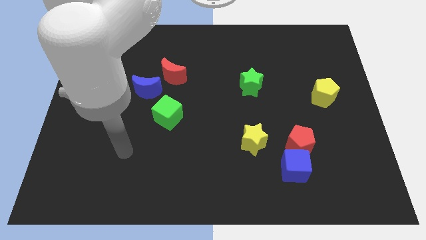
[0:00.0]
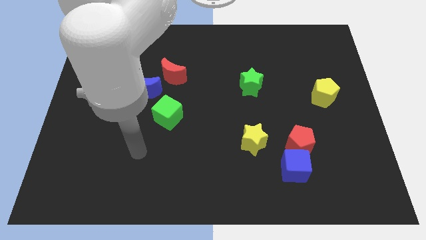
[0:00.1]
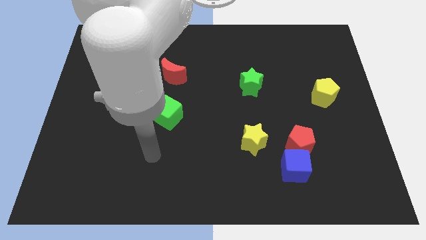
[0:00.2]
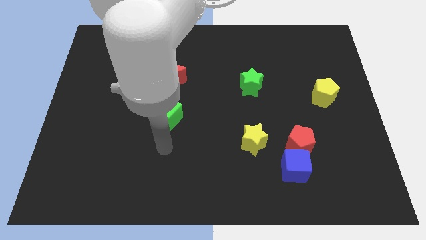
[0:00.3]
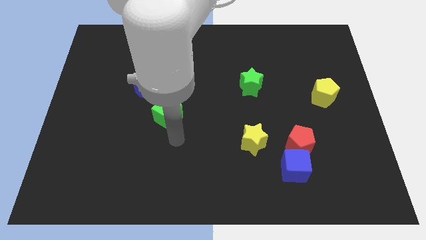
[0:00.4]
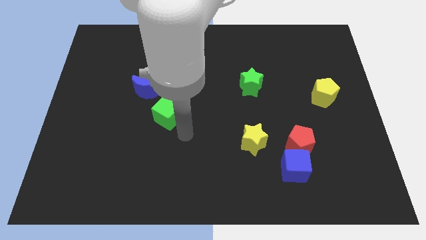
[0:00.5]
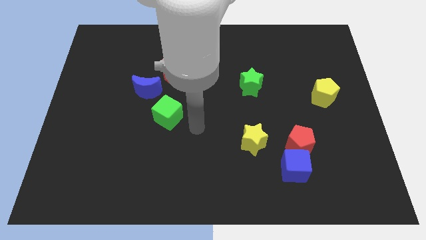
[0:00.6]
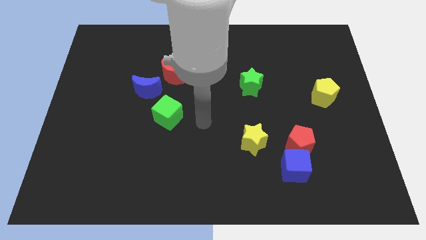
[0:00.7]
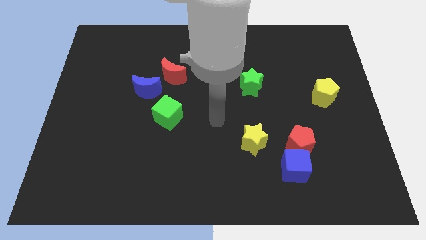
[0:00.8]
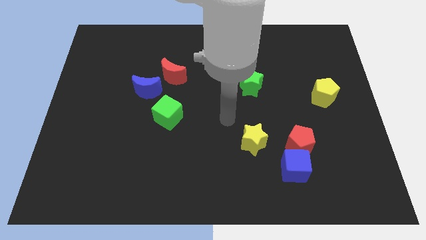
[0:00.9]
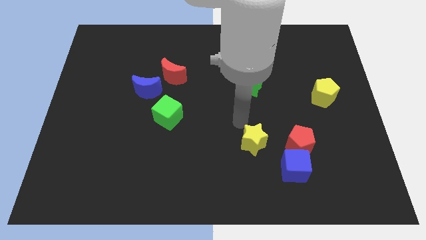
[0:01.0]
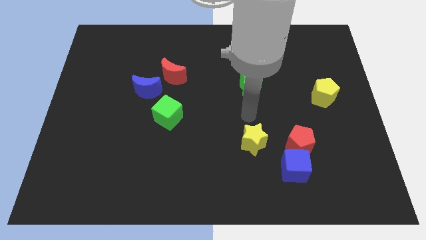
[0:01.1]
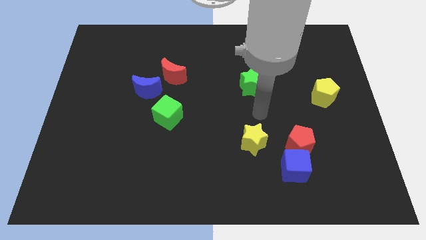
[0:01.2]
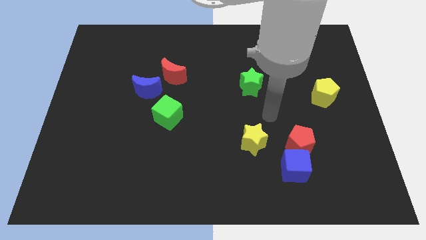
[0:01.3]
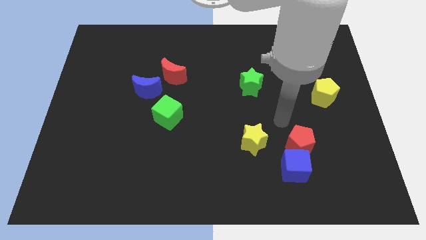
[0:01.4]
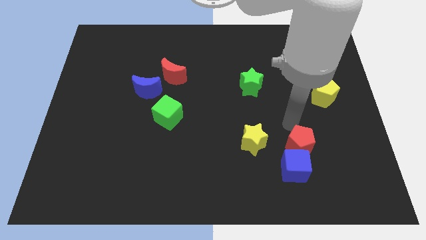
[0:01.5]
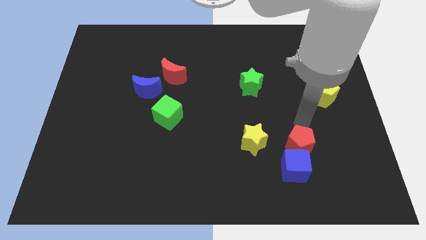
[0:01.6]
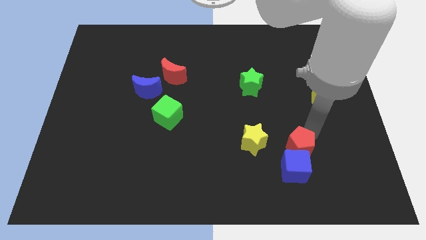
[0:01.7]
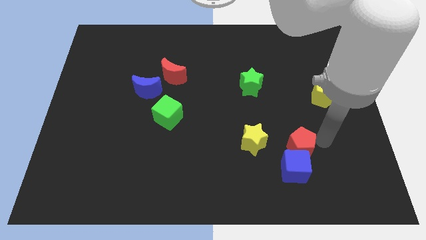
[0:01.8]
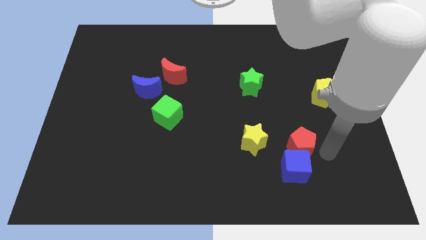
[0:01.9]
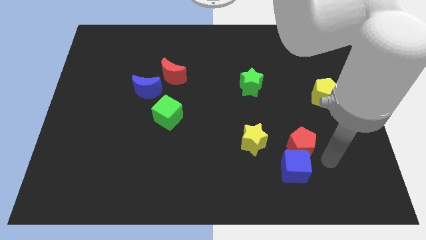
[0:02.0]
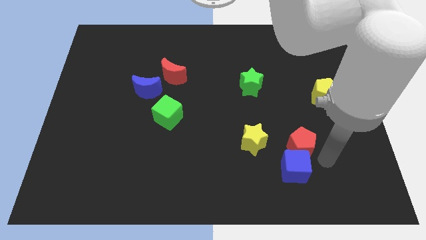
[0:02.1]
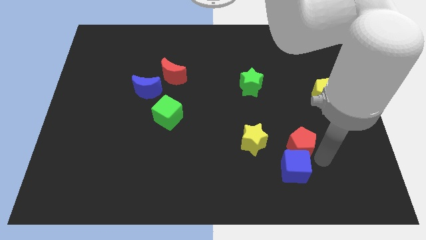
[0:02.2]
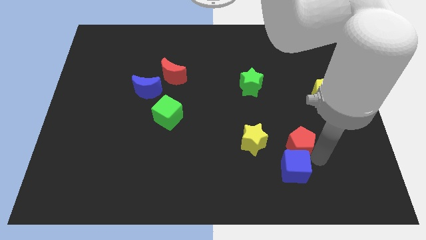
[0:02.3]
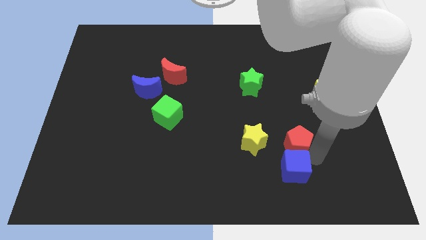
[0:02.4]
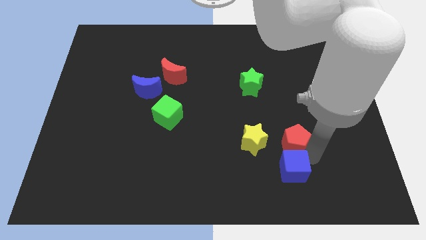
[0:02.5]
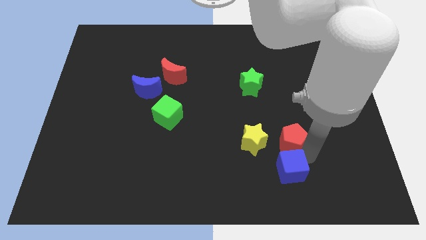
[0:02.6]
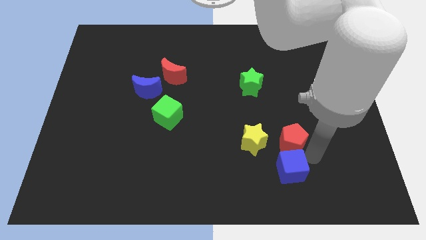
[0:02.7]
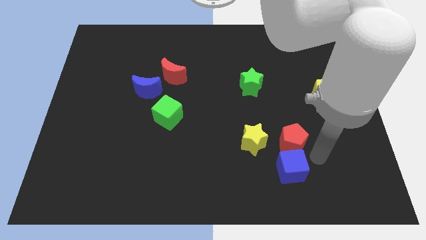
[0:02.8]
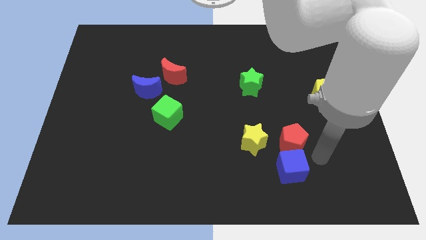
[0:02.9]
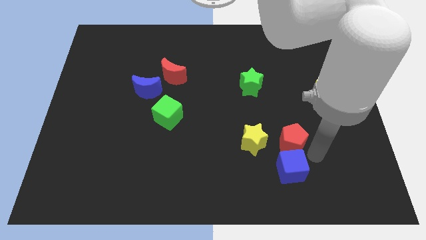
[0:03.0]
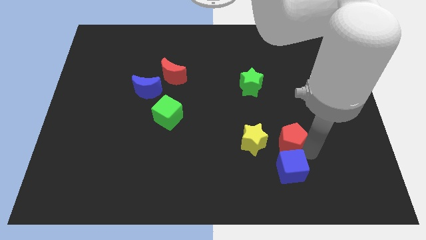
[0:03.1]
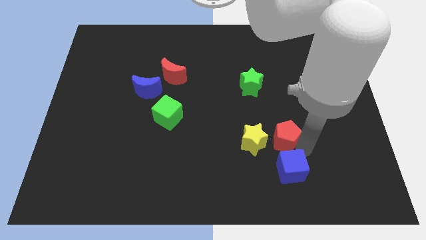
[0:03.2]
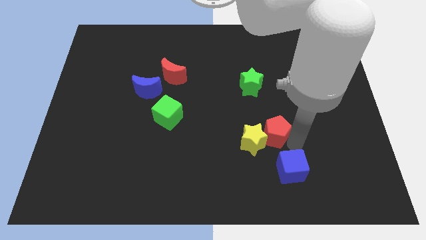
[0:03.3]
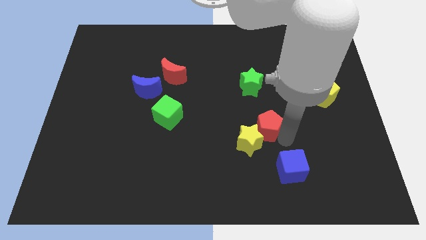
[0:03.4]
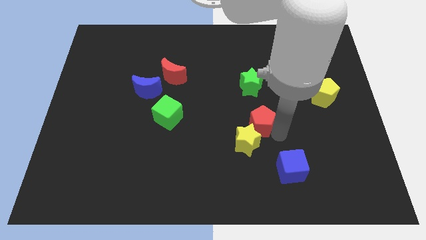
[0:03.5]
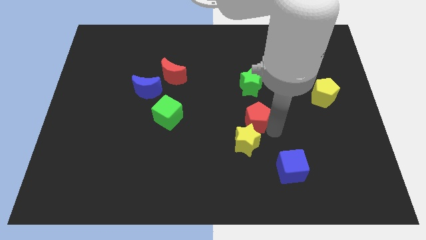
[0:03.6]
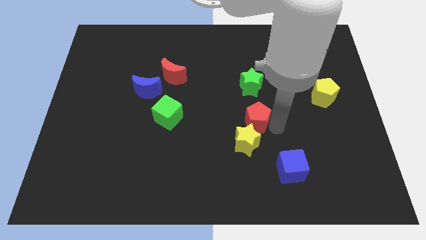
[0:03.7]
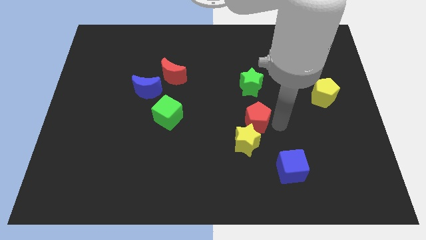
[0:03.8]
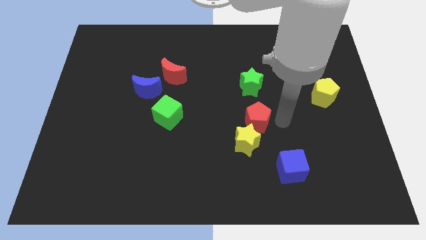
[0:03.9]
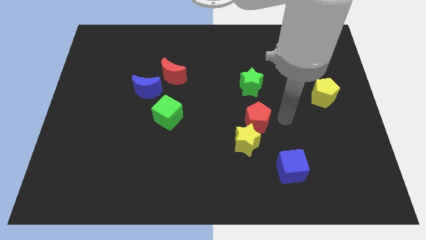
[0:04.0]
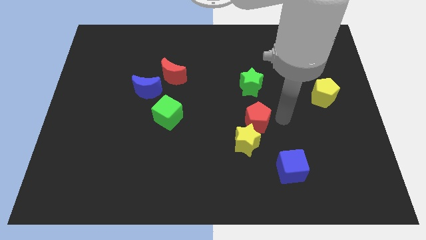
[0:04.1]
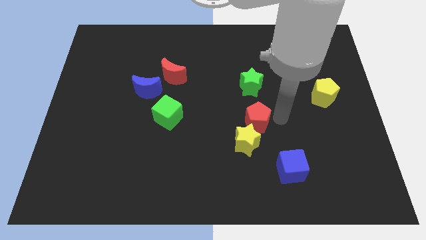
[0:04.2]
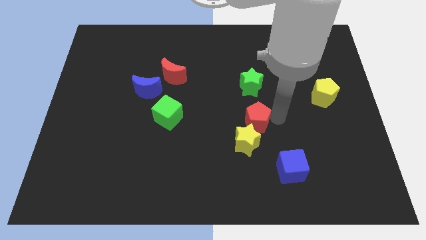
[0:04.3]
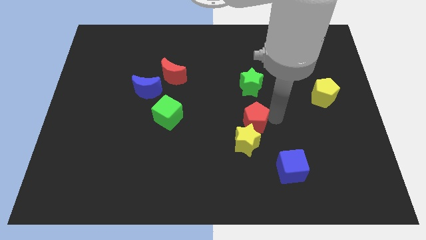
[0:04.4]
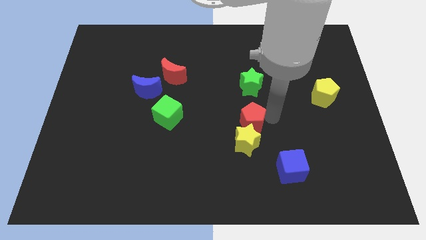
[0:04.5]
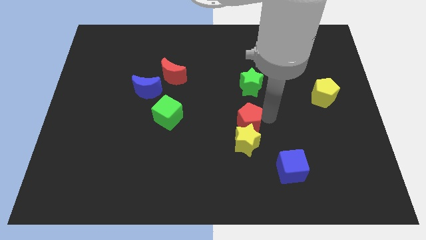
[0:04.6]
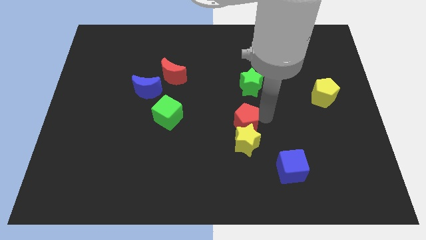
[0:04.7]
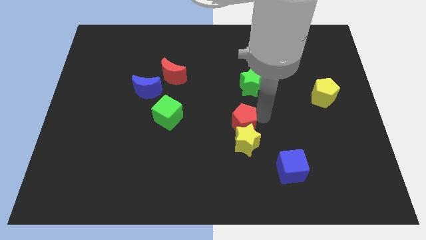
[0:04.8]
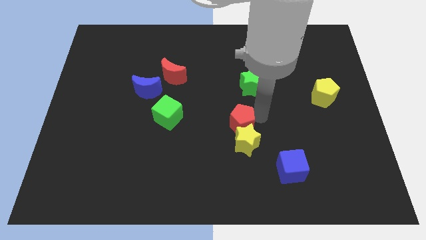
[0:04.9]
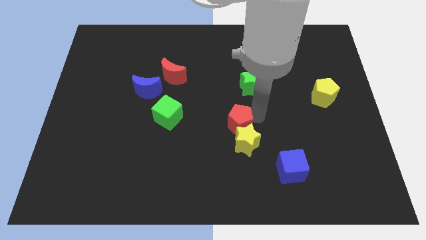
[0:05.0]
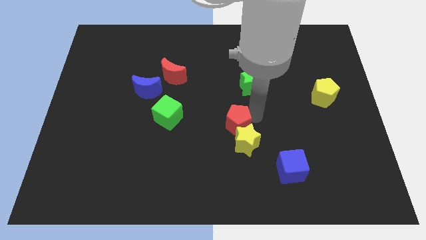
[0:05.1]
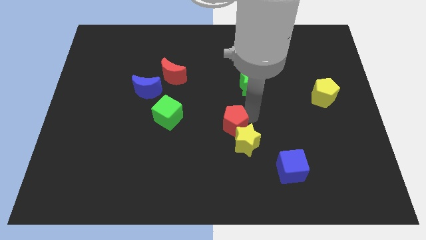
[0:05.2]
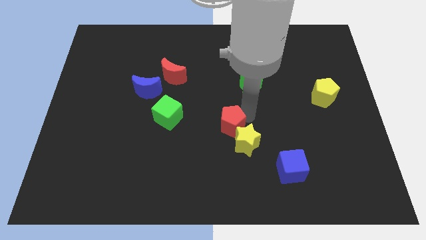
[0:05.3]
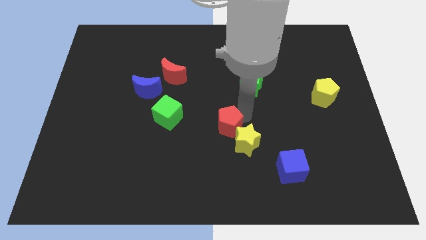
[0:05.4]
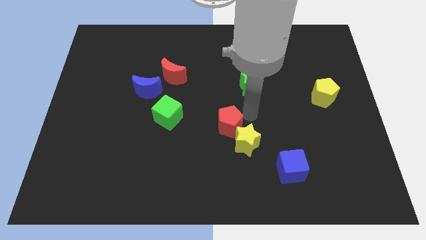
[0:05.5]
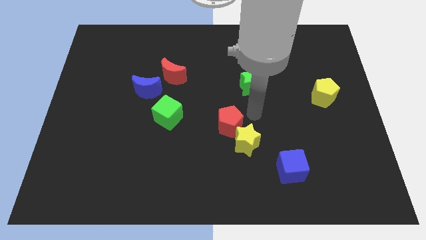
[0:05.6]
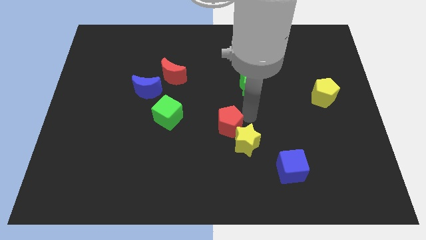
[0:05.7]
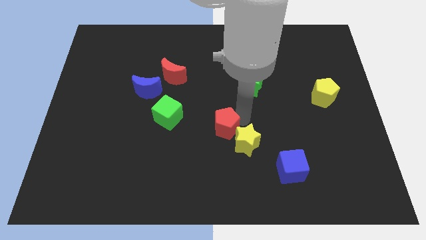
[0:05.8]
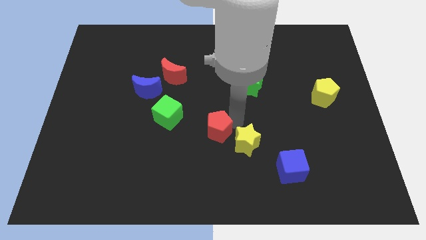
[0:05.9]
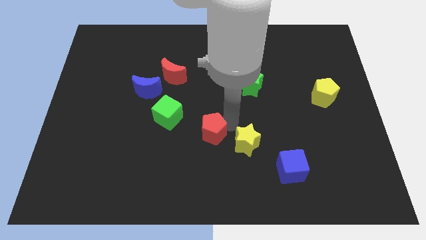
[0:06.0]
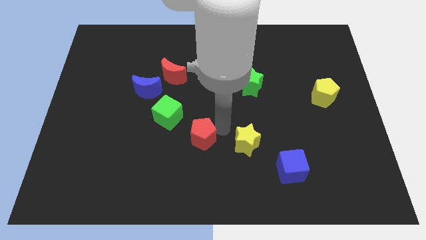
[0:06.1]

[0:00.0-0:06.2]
push the red pentagon to the left

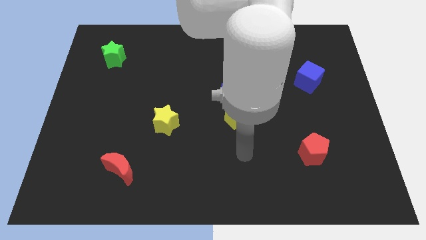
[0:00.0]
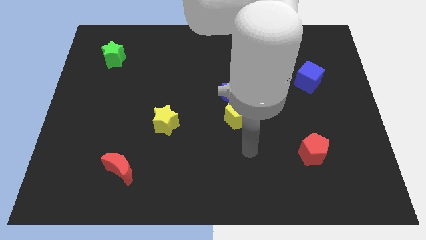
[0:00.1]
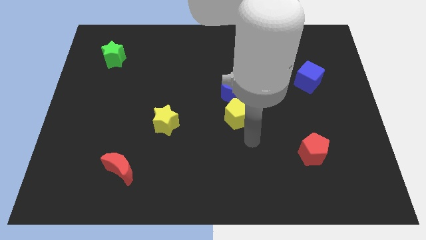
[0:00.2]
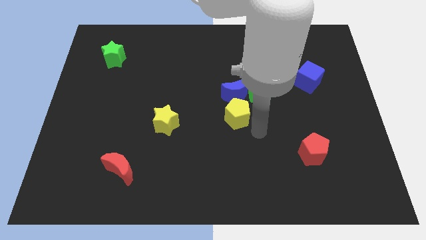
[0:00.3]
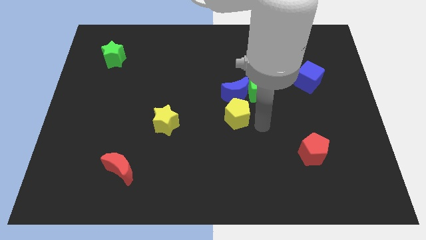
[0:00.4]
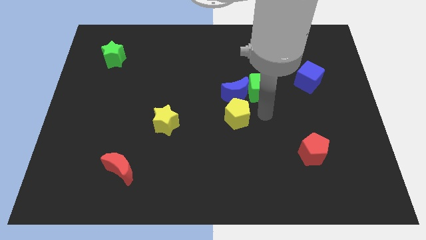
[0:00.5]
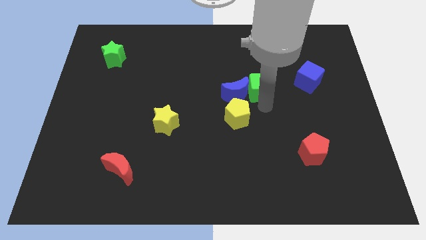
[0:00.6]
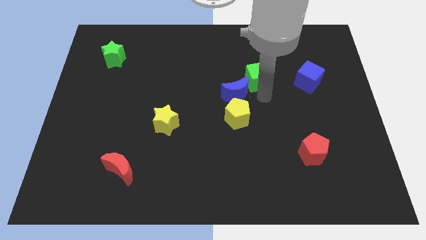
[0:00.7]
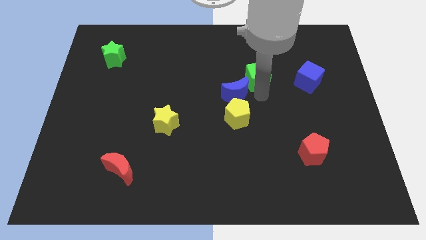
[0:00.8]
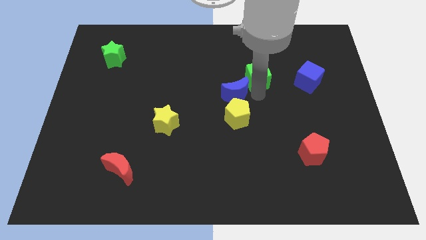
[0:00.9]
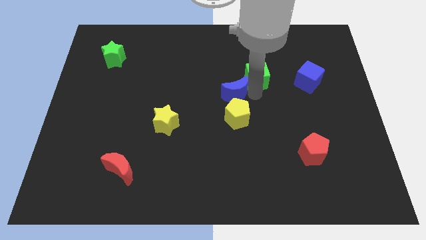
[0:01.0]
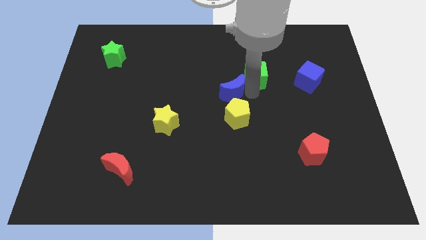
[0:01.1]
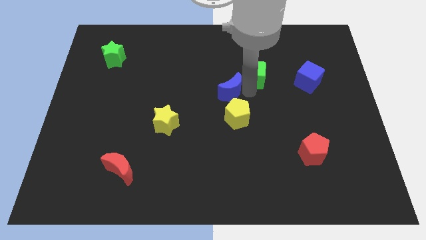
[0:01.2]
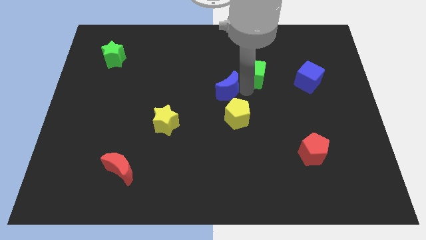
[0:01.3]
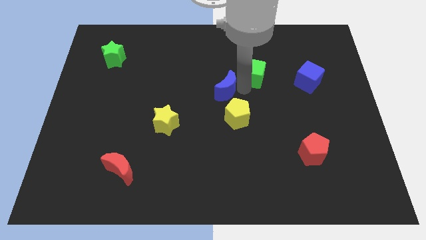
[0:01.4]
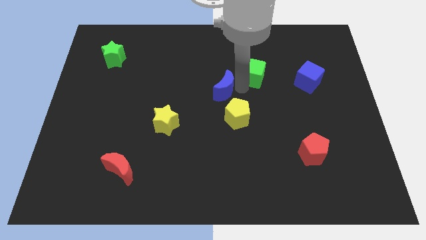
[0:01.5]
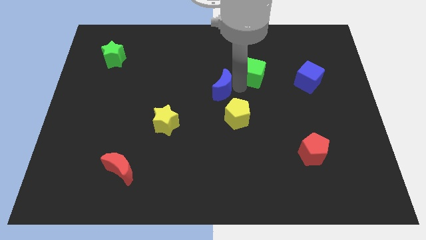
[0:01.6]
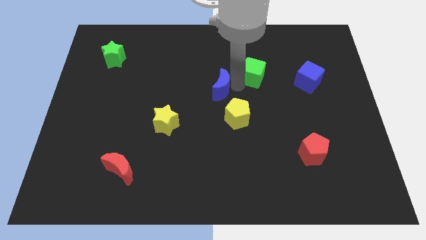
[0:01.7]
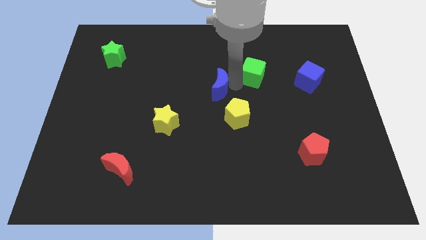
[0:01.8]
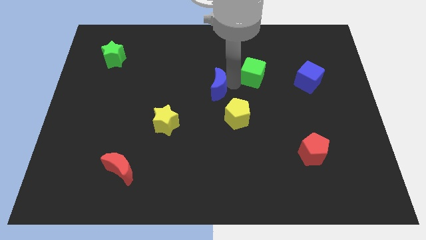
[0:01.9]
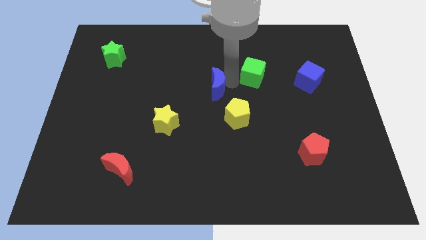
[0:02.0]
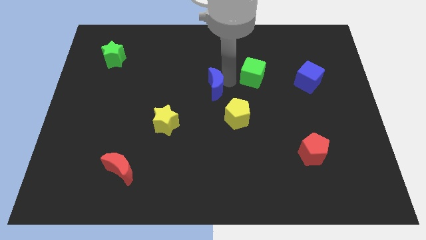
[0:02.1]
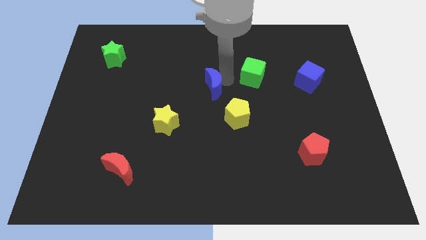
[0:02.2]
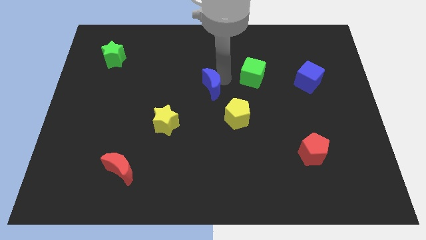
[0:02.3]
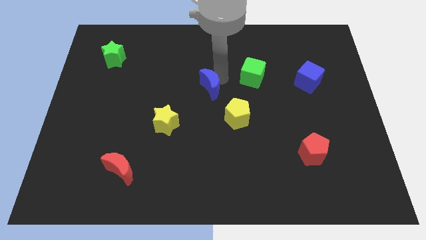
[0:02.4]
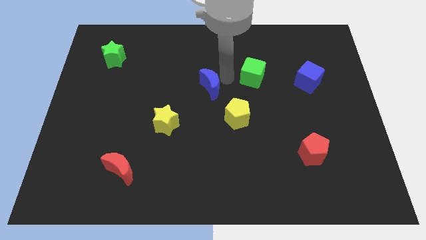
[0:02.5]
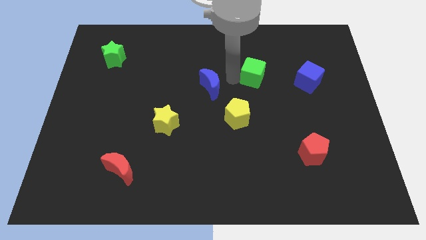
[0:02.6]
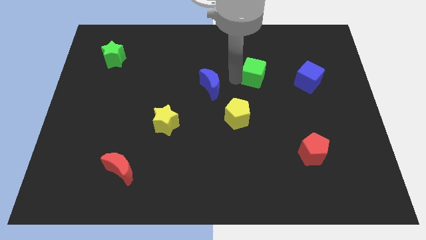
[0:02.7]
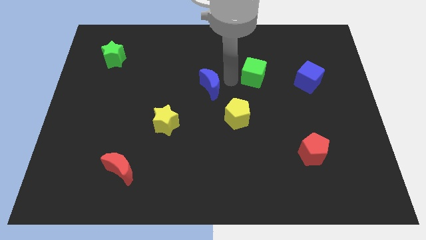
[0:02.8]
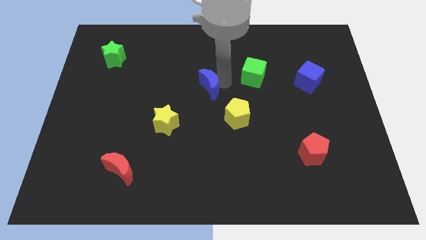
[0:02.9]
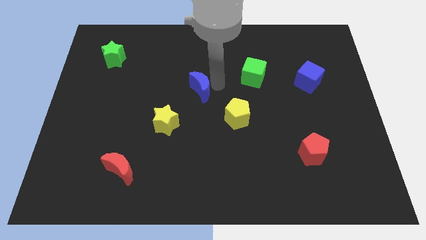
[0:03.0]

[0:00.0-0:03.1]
move the blue moon left a little
